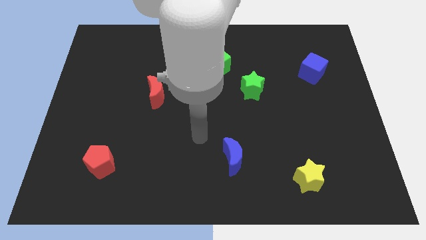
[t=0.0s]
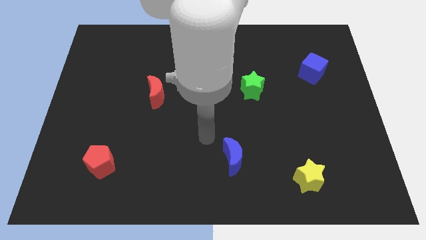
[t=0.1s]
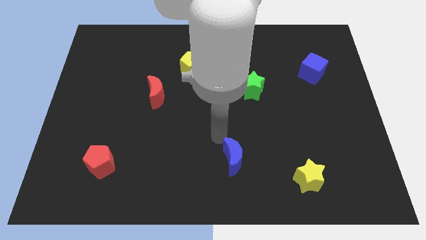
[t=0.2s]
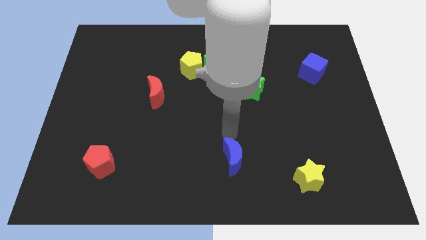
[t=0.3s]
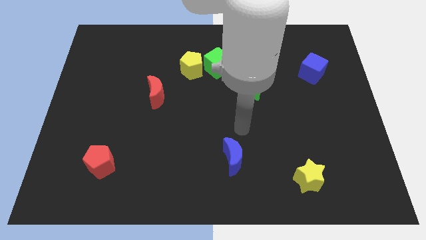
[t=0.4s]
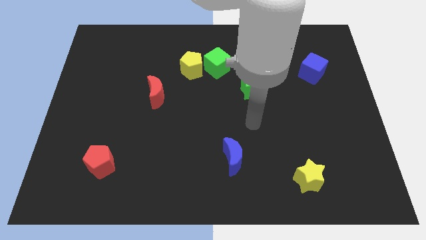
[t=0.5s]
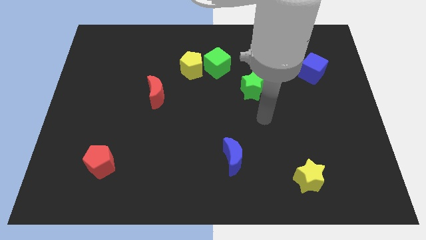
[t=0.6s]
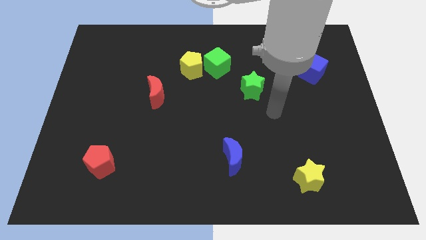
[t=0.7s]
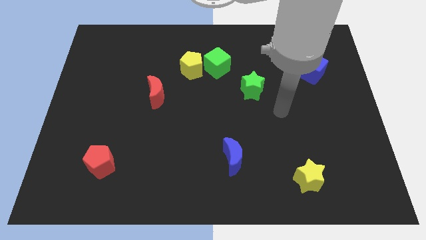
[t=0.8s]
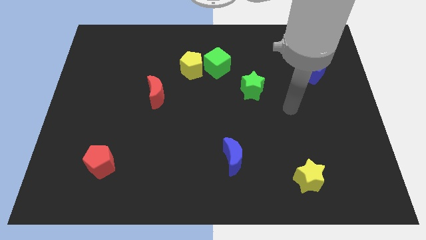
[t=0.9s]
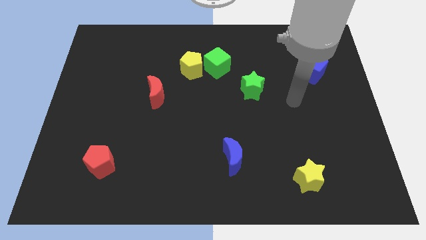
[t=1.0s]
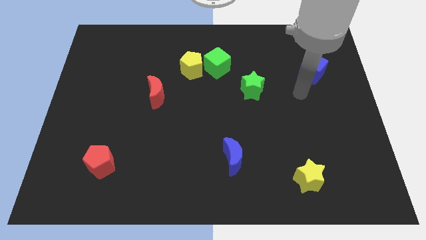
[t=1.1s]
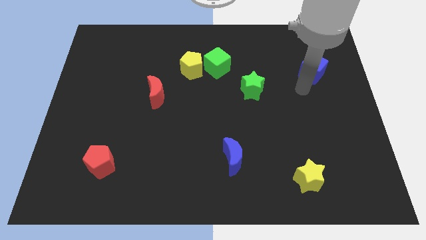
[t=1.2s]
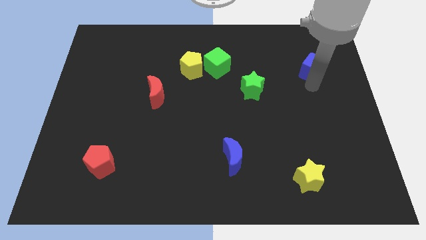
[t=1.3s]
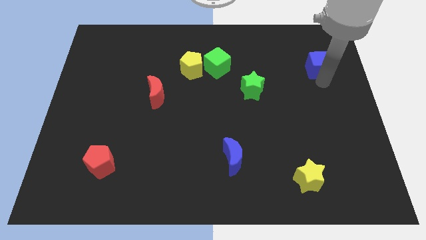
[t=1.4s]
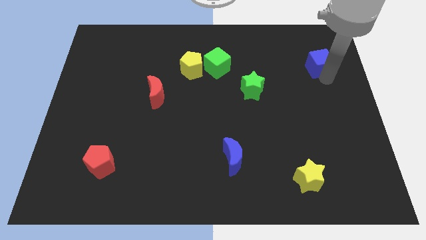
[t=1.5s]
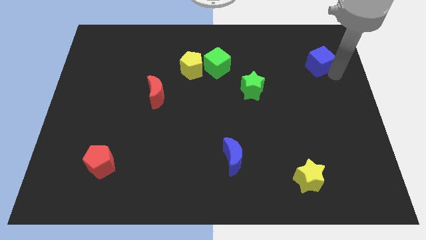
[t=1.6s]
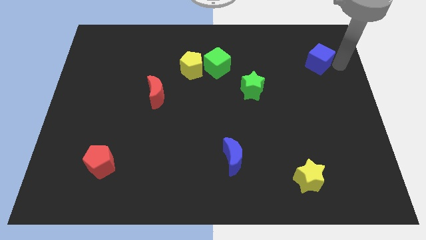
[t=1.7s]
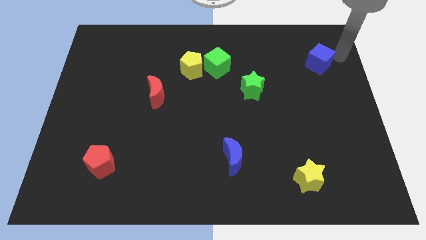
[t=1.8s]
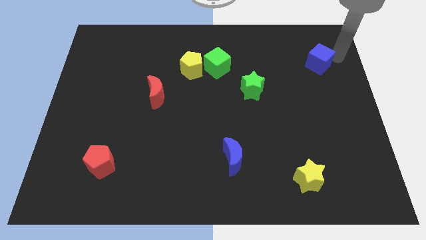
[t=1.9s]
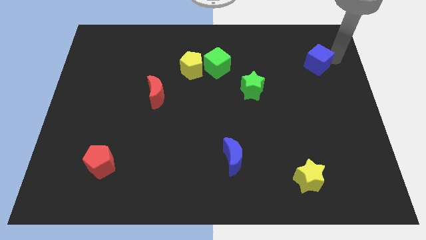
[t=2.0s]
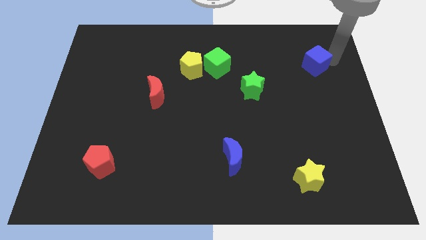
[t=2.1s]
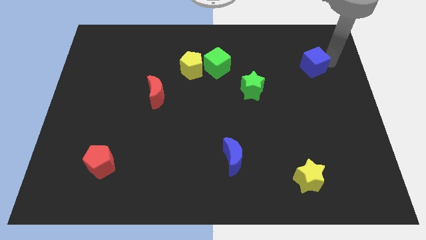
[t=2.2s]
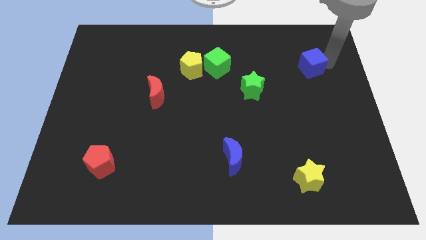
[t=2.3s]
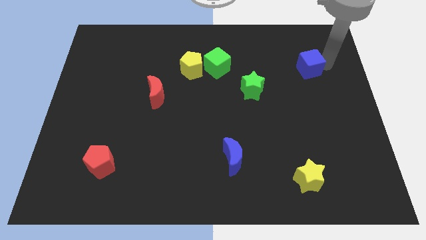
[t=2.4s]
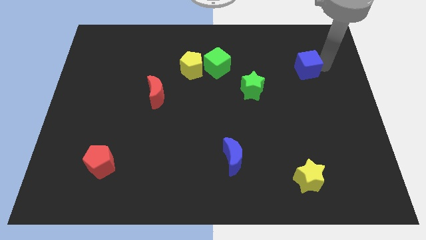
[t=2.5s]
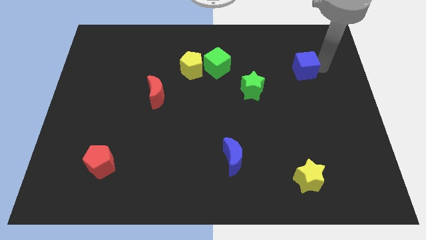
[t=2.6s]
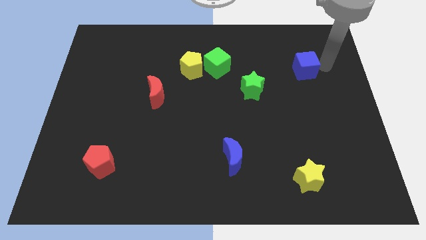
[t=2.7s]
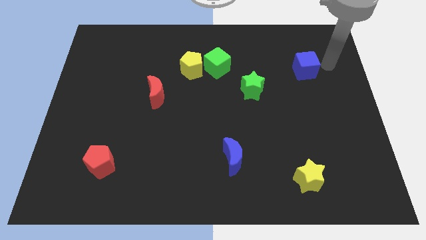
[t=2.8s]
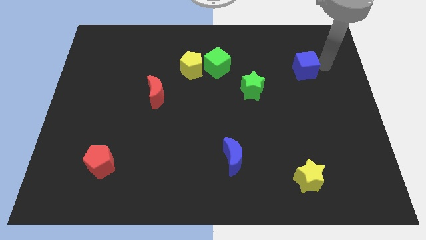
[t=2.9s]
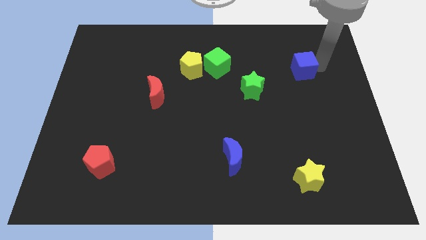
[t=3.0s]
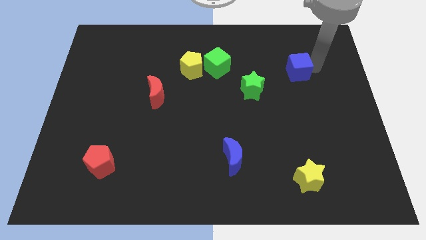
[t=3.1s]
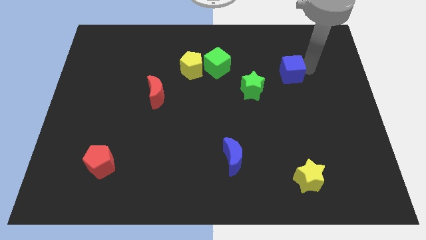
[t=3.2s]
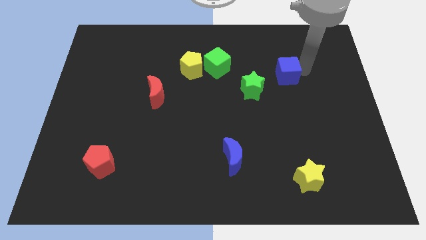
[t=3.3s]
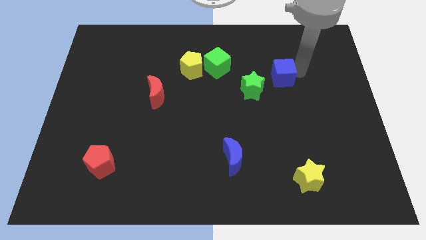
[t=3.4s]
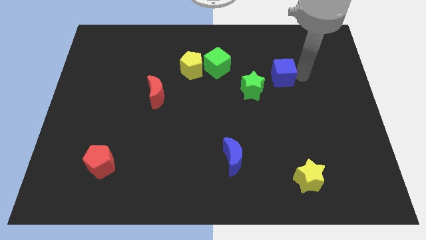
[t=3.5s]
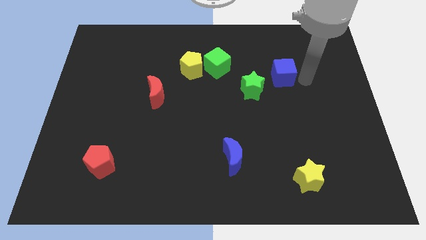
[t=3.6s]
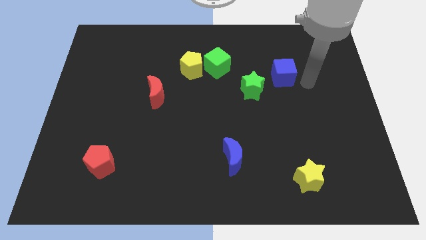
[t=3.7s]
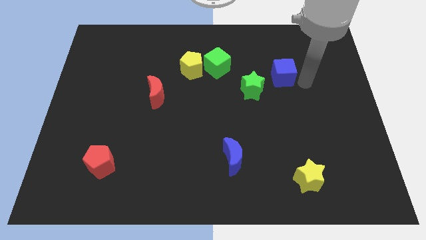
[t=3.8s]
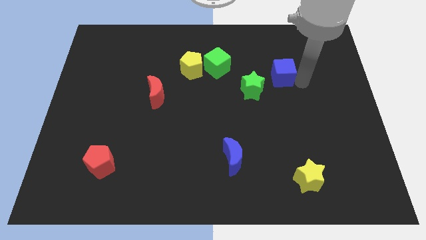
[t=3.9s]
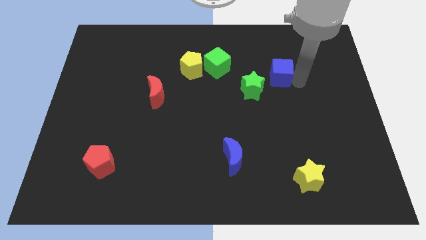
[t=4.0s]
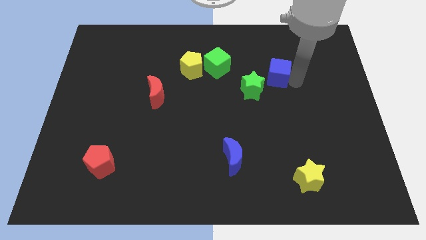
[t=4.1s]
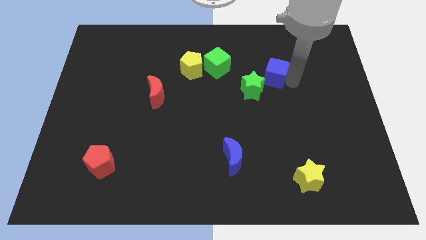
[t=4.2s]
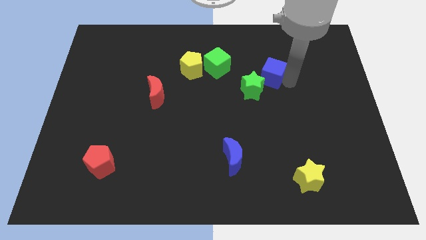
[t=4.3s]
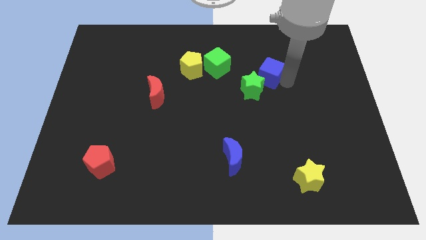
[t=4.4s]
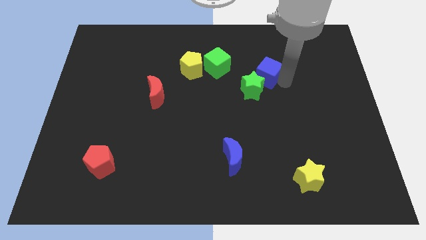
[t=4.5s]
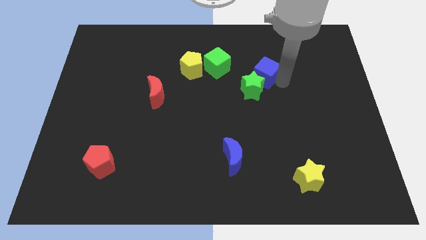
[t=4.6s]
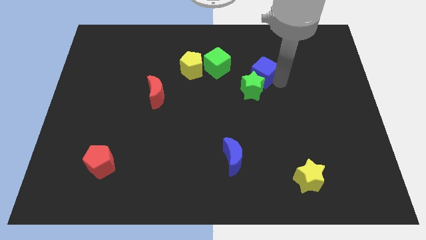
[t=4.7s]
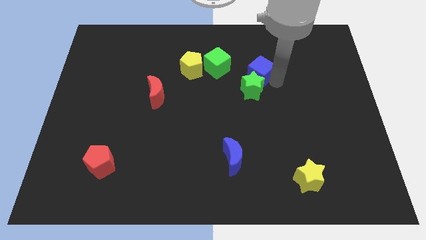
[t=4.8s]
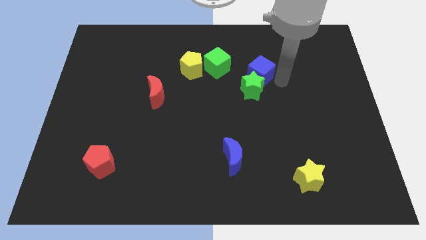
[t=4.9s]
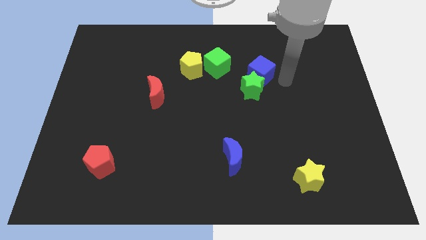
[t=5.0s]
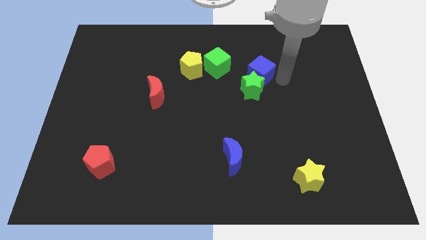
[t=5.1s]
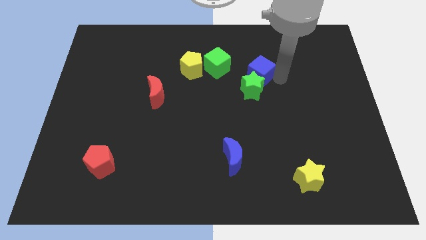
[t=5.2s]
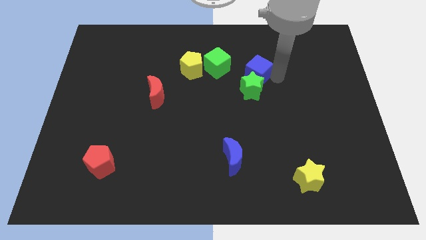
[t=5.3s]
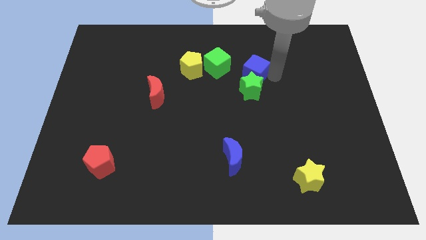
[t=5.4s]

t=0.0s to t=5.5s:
put the blue cube to the right of the yellow pentagon

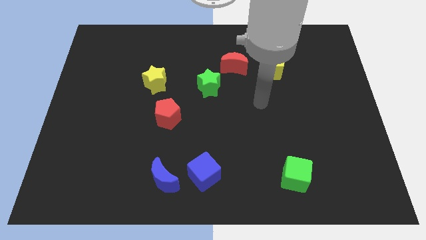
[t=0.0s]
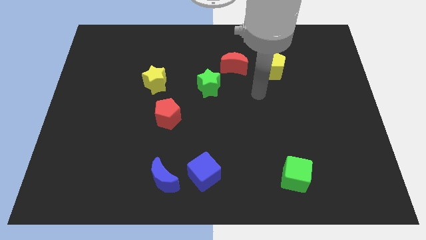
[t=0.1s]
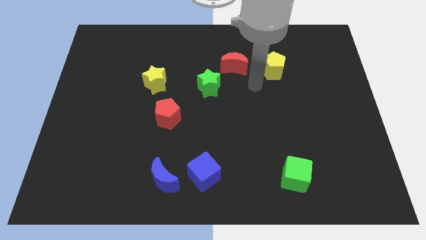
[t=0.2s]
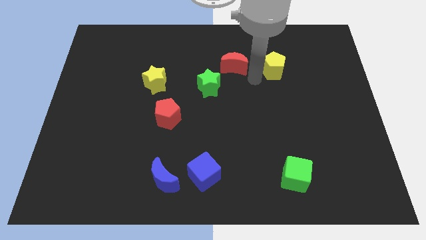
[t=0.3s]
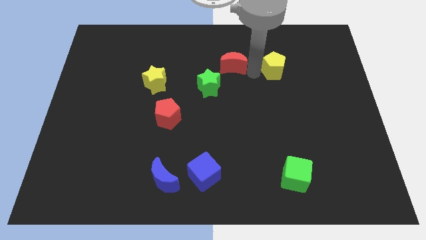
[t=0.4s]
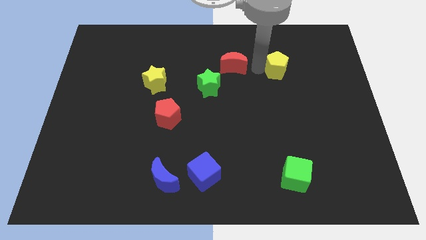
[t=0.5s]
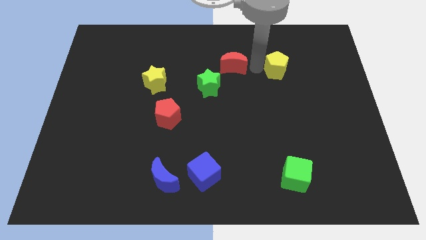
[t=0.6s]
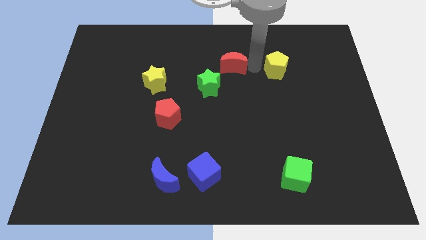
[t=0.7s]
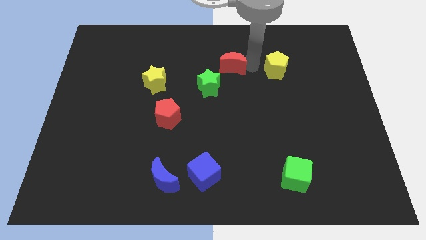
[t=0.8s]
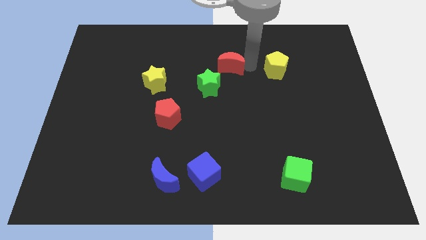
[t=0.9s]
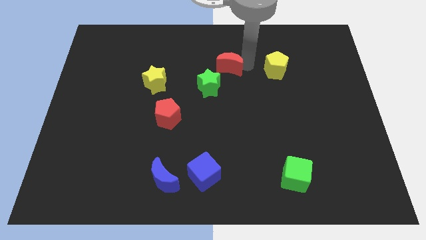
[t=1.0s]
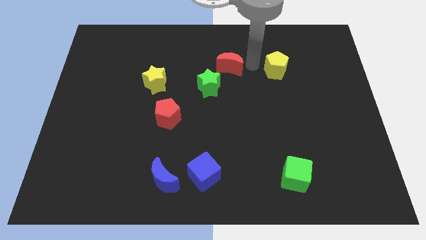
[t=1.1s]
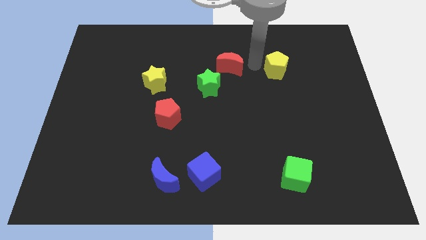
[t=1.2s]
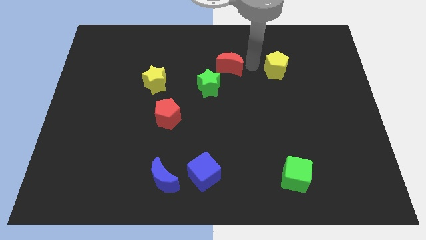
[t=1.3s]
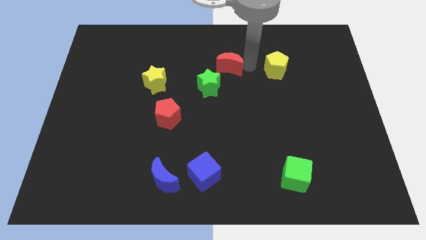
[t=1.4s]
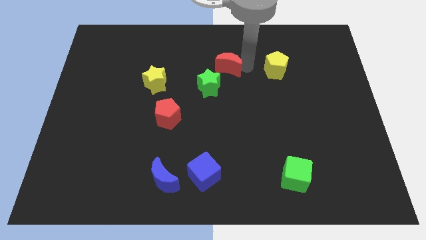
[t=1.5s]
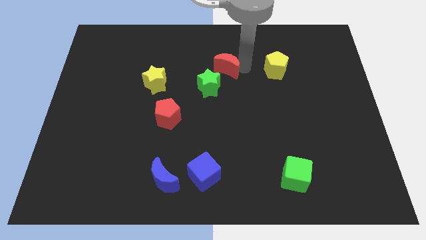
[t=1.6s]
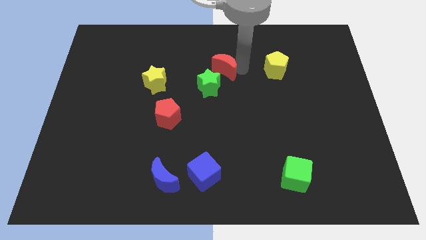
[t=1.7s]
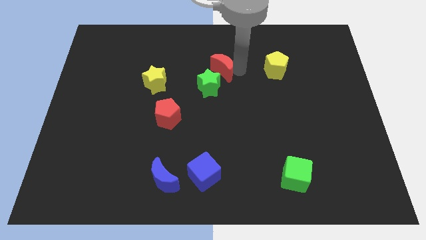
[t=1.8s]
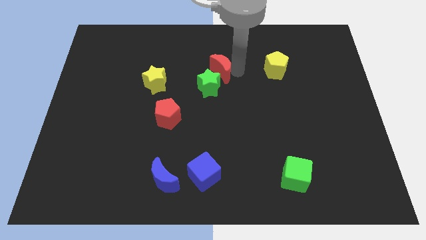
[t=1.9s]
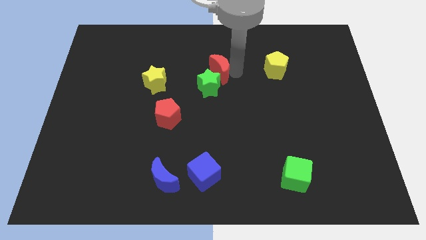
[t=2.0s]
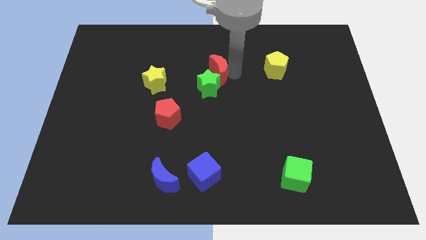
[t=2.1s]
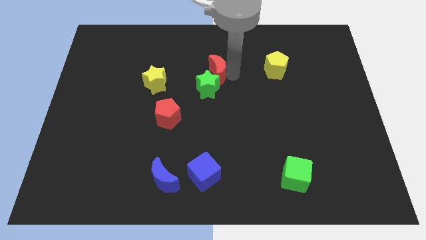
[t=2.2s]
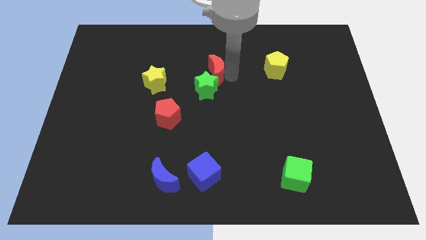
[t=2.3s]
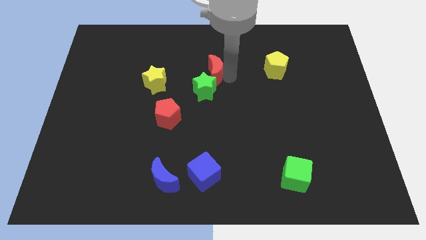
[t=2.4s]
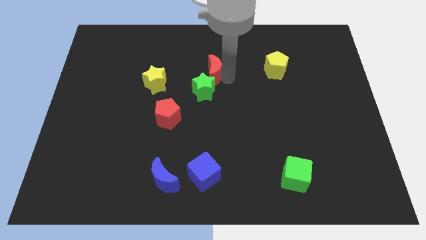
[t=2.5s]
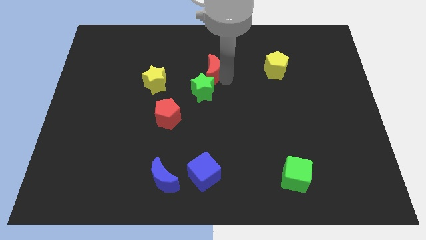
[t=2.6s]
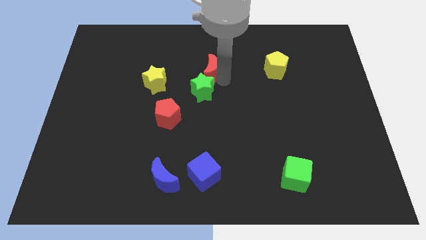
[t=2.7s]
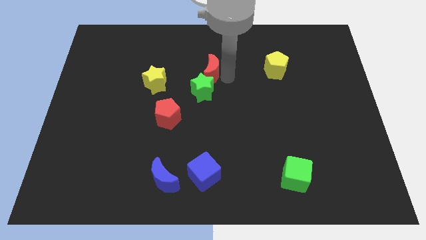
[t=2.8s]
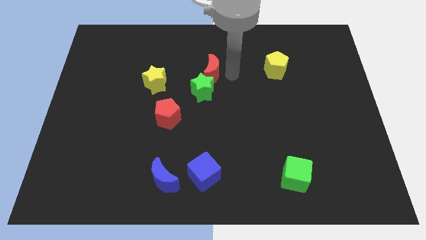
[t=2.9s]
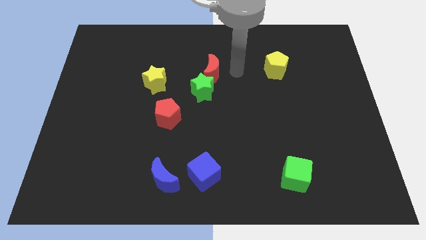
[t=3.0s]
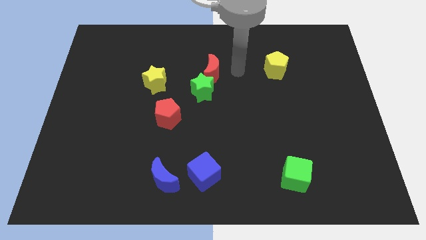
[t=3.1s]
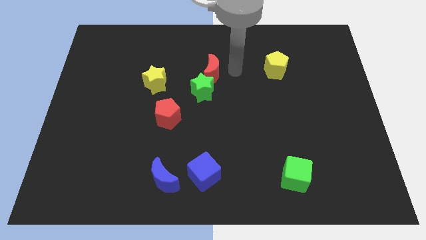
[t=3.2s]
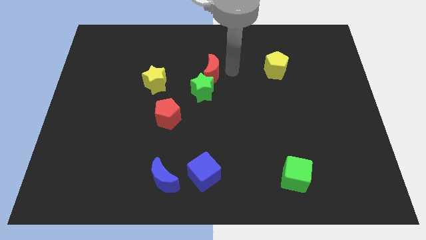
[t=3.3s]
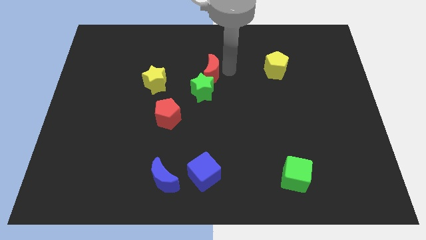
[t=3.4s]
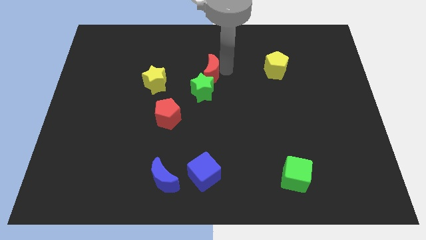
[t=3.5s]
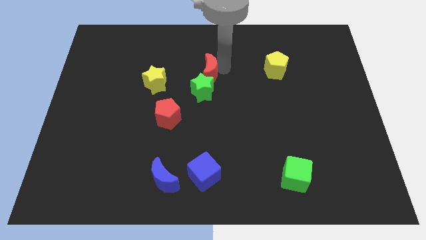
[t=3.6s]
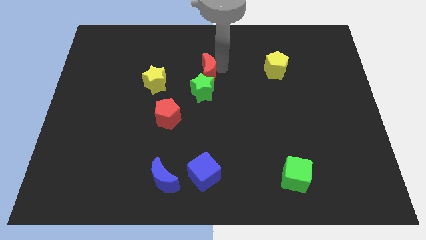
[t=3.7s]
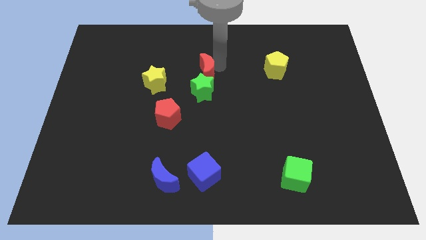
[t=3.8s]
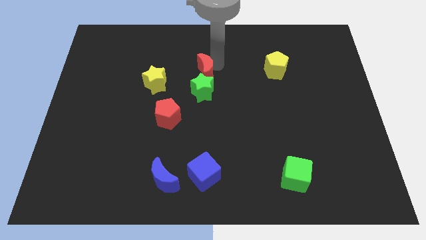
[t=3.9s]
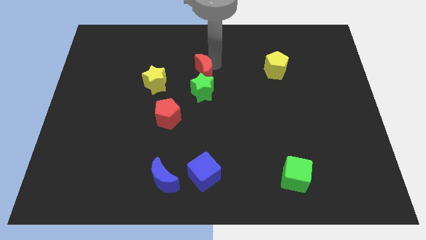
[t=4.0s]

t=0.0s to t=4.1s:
move the red moon to the top left side of the green star
